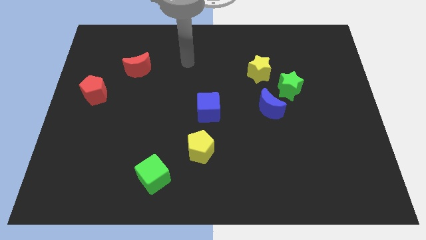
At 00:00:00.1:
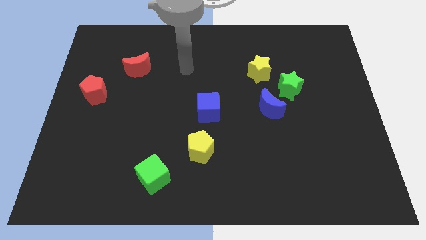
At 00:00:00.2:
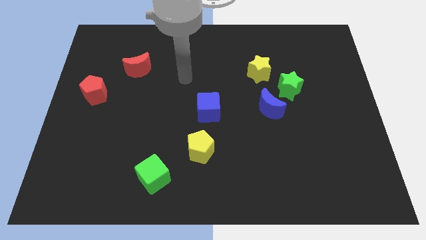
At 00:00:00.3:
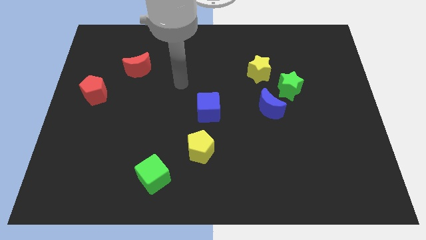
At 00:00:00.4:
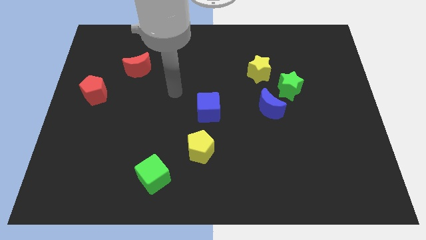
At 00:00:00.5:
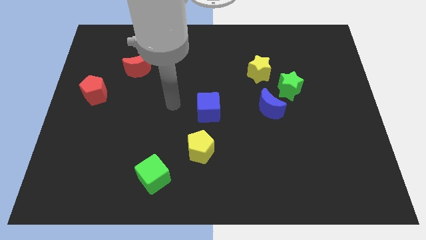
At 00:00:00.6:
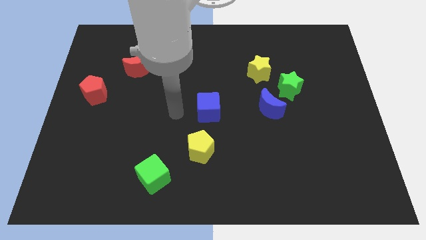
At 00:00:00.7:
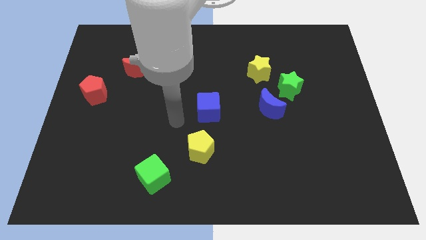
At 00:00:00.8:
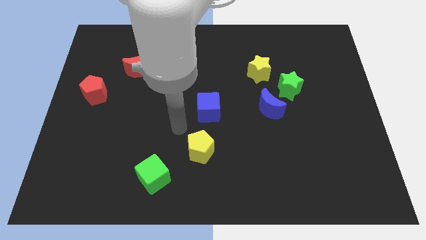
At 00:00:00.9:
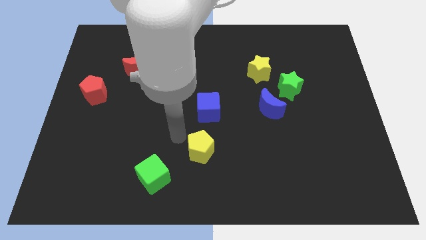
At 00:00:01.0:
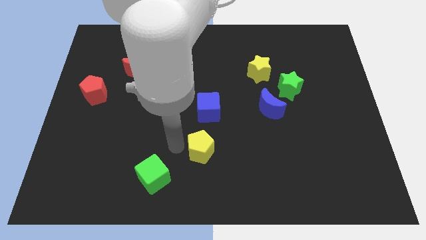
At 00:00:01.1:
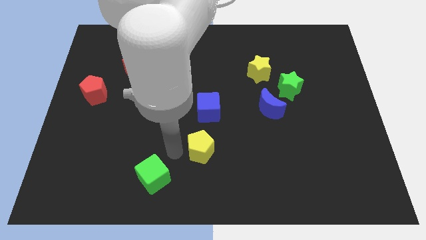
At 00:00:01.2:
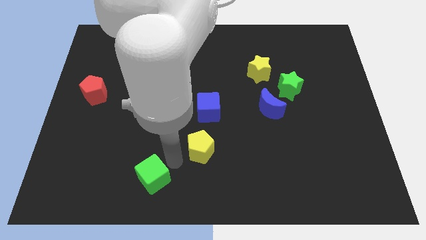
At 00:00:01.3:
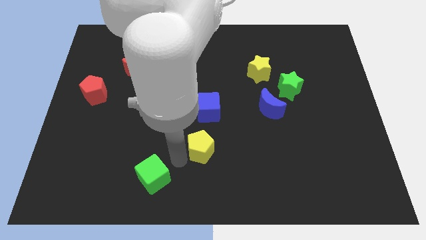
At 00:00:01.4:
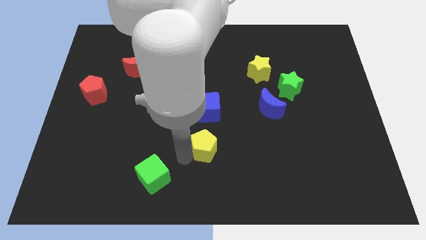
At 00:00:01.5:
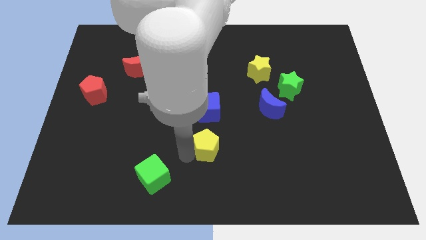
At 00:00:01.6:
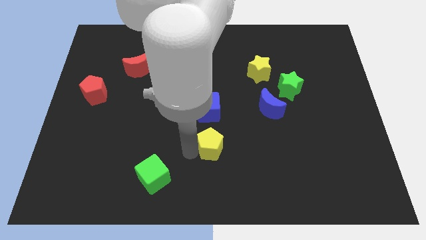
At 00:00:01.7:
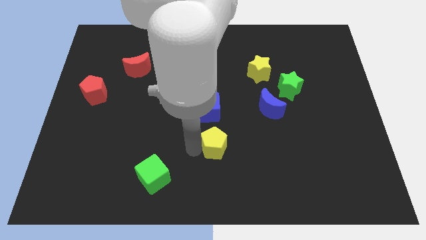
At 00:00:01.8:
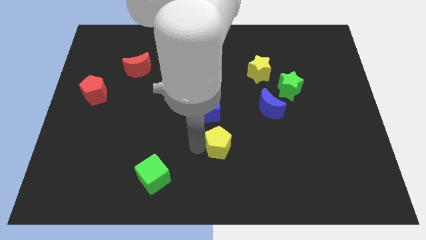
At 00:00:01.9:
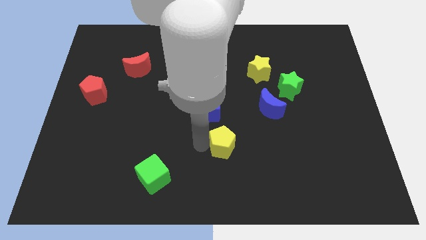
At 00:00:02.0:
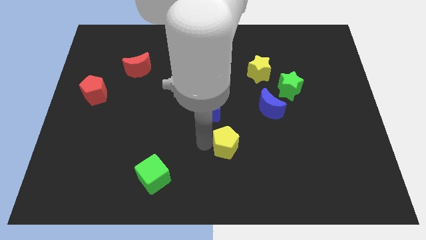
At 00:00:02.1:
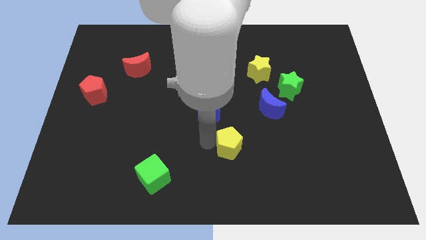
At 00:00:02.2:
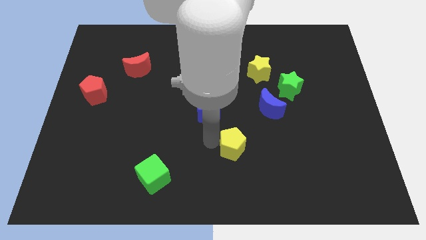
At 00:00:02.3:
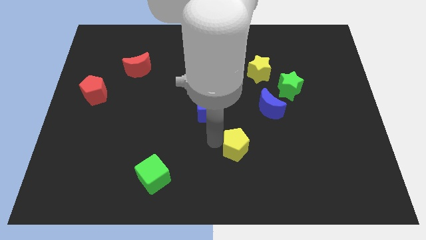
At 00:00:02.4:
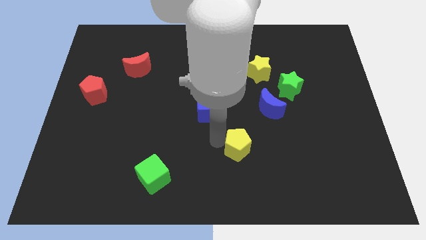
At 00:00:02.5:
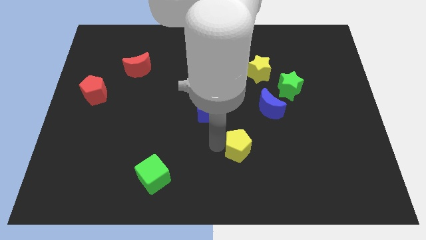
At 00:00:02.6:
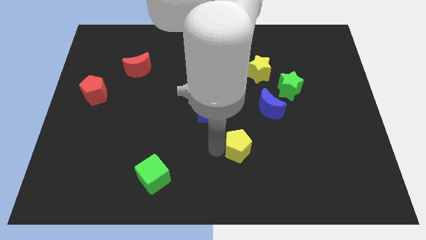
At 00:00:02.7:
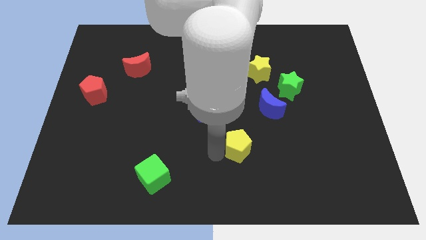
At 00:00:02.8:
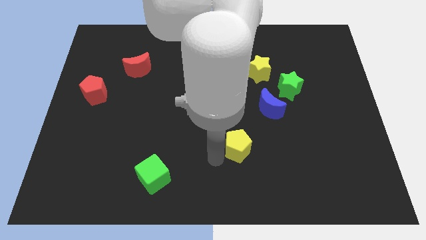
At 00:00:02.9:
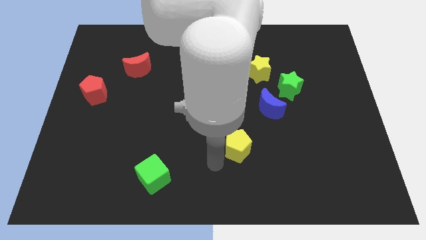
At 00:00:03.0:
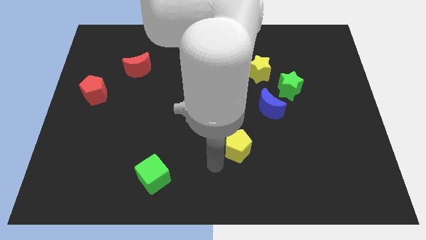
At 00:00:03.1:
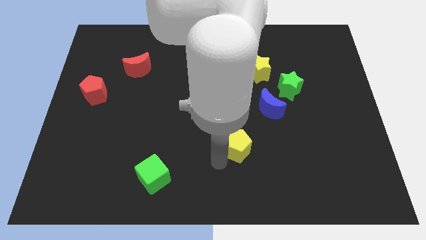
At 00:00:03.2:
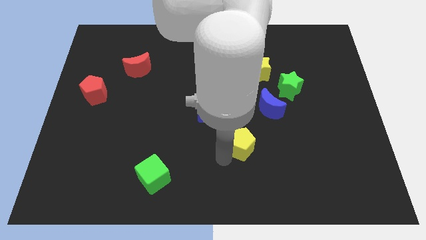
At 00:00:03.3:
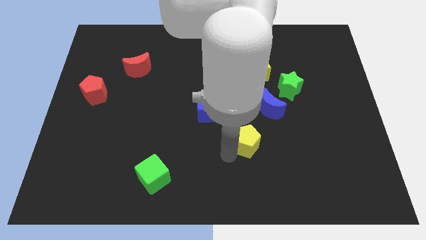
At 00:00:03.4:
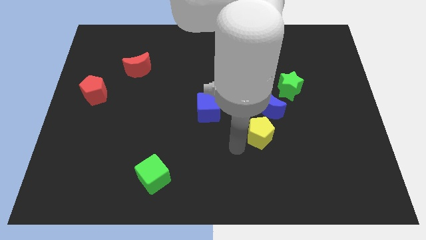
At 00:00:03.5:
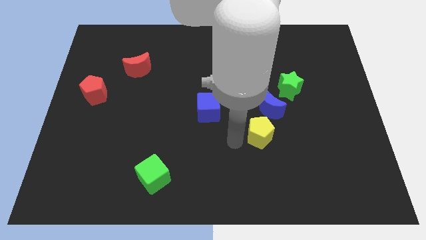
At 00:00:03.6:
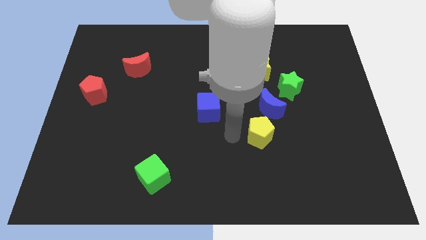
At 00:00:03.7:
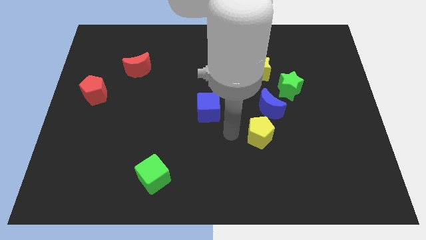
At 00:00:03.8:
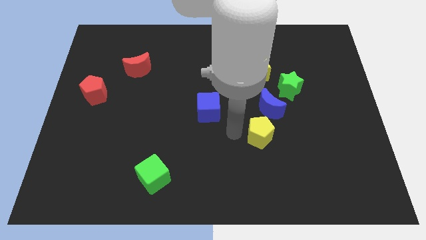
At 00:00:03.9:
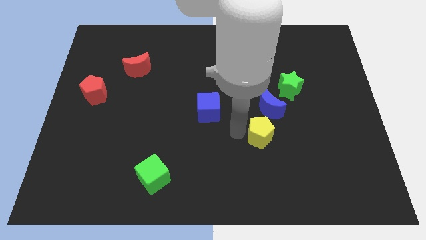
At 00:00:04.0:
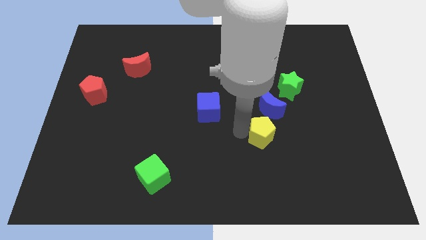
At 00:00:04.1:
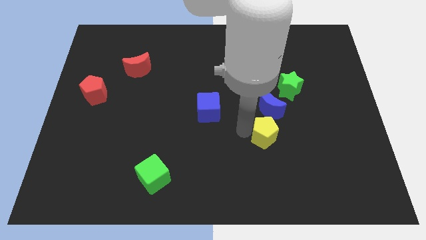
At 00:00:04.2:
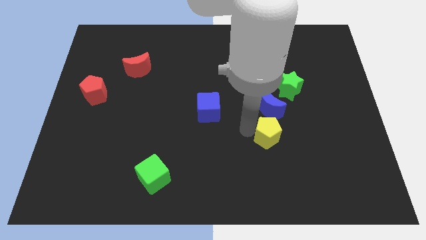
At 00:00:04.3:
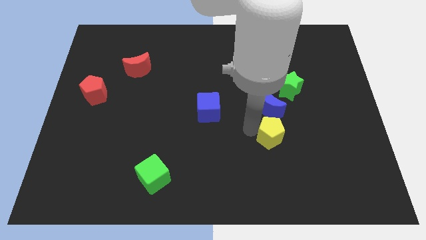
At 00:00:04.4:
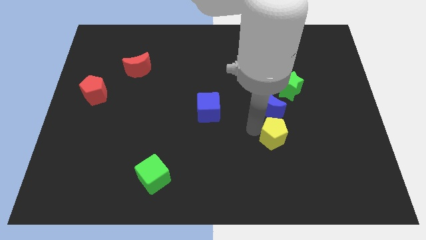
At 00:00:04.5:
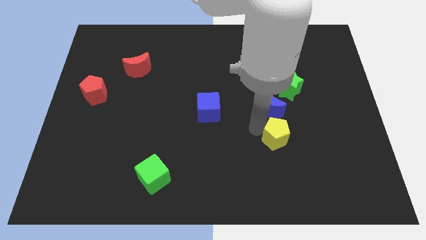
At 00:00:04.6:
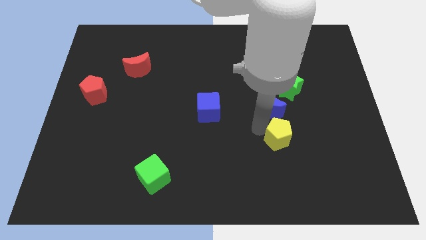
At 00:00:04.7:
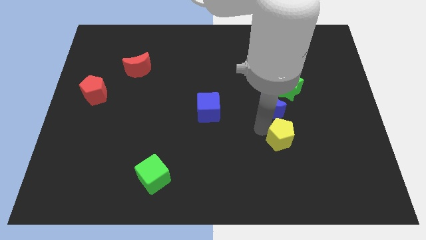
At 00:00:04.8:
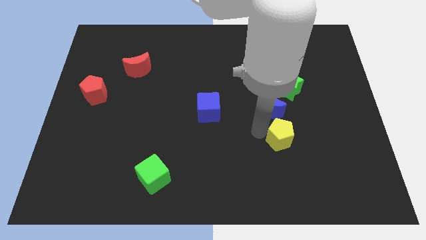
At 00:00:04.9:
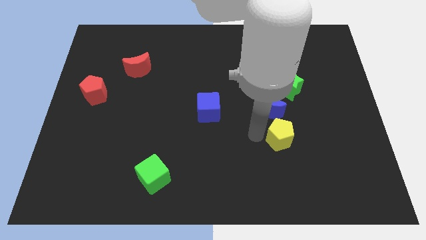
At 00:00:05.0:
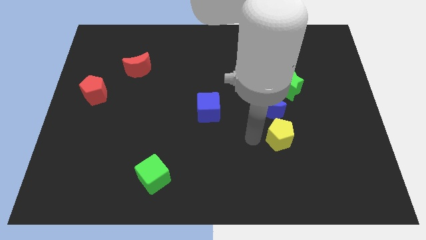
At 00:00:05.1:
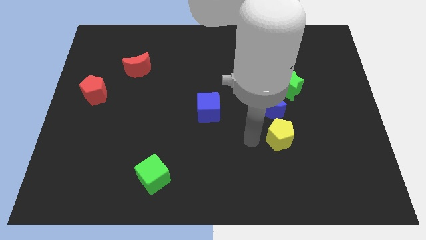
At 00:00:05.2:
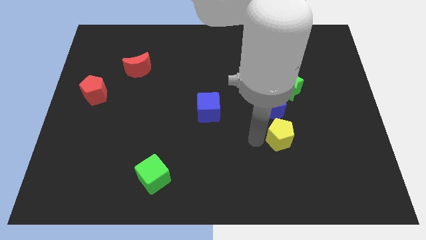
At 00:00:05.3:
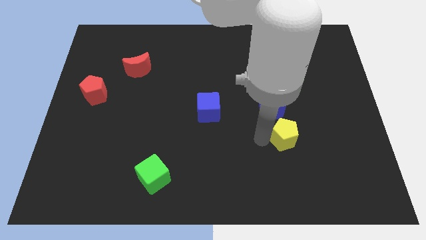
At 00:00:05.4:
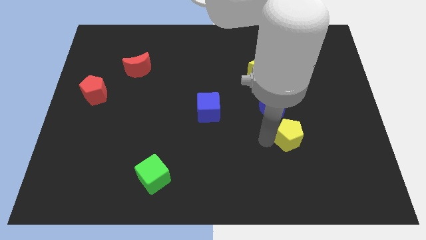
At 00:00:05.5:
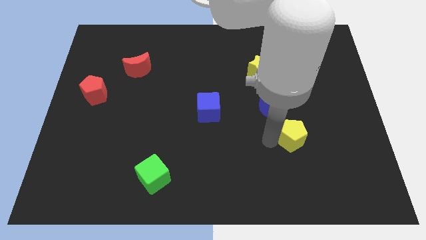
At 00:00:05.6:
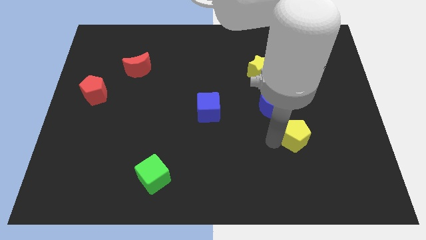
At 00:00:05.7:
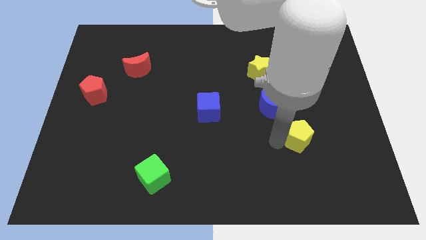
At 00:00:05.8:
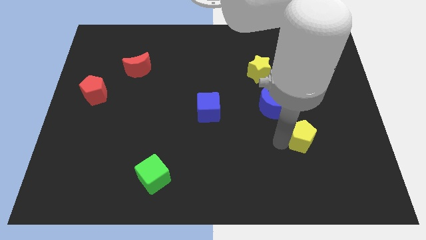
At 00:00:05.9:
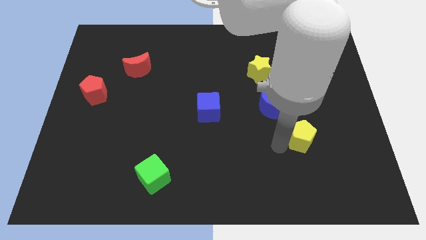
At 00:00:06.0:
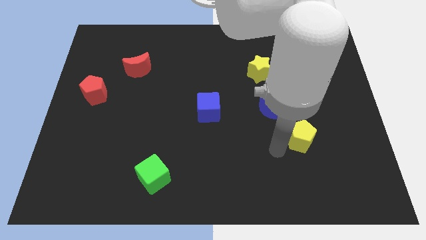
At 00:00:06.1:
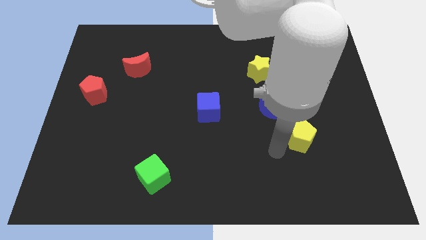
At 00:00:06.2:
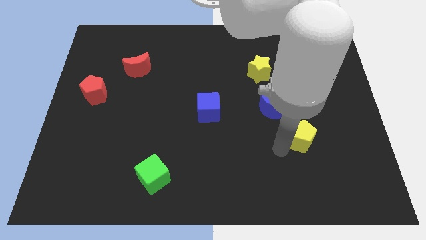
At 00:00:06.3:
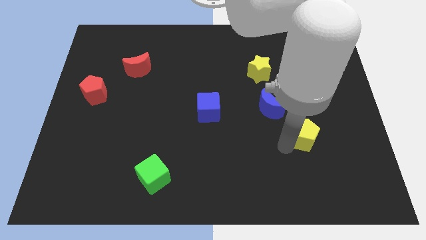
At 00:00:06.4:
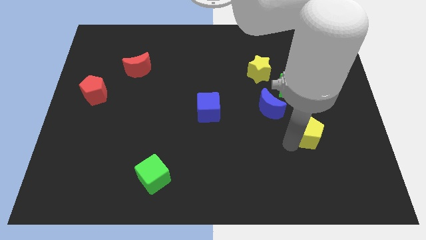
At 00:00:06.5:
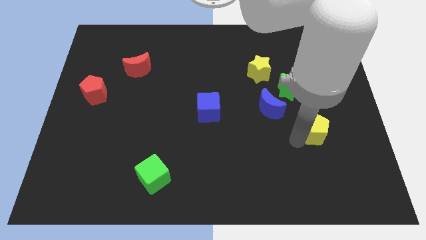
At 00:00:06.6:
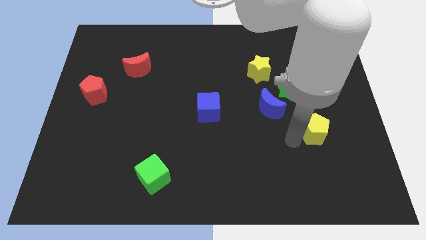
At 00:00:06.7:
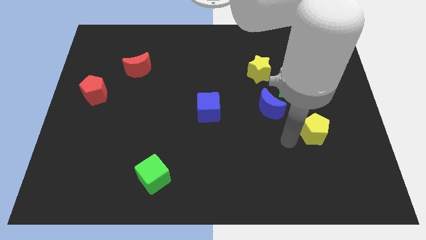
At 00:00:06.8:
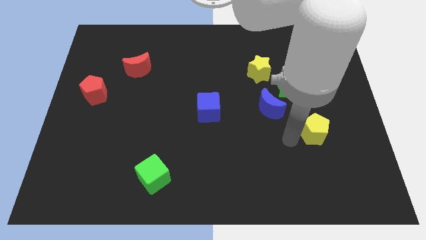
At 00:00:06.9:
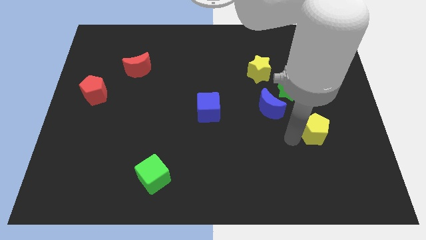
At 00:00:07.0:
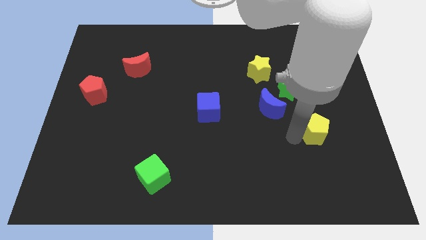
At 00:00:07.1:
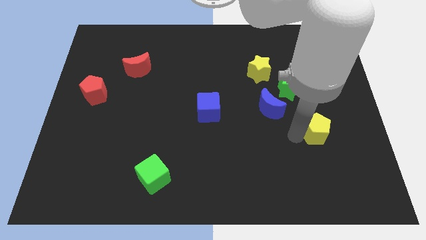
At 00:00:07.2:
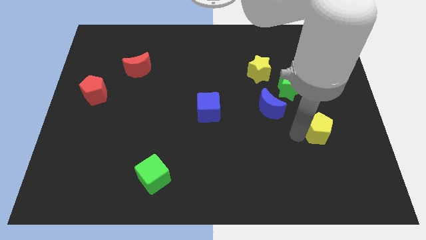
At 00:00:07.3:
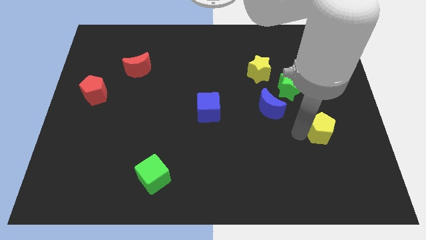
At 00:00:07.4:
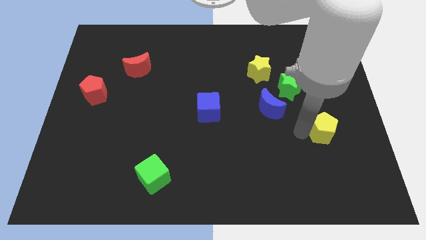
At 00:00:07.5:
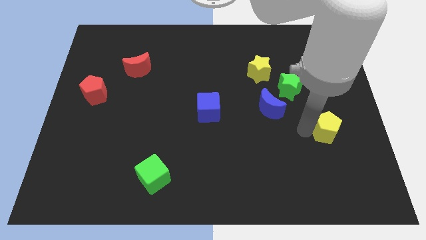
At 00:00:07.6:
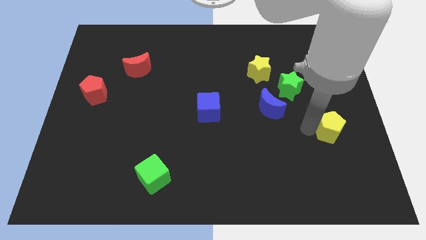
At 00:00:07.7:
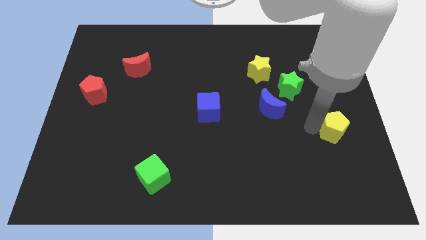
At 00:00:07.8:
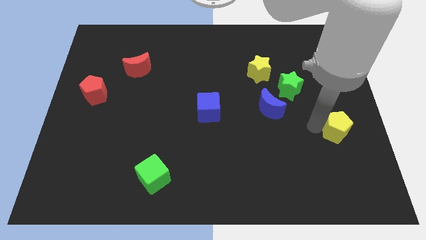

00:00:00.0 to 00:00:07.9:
push the yellow pentagon to the right side
